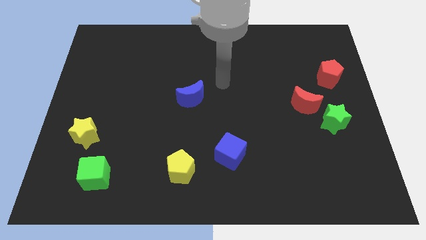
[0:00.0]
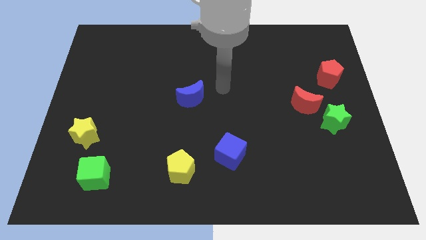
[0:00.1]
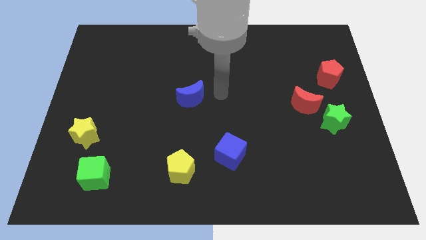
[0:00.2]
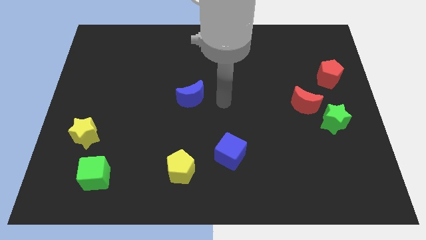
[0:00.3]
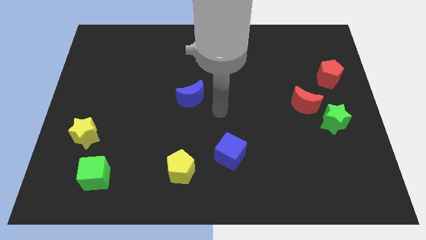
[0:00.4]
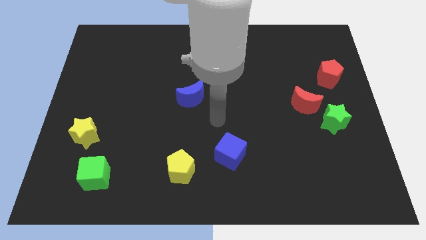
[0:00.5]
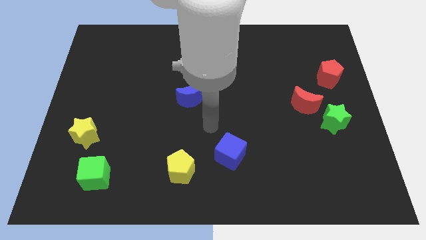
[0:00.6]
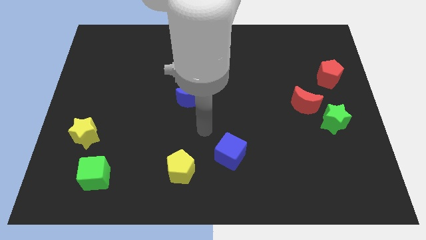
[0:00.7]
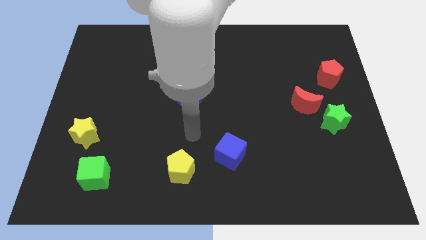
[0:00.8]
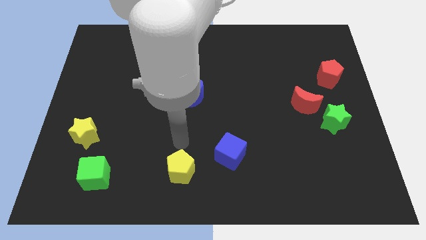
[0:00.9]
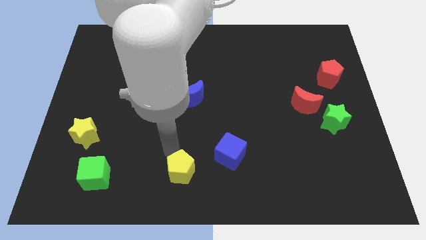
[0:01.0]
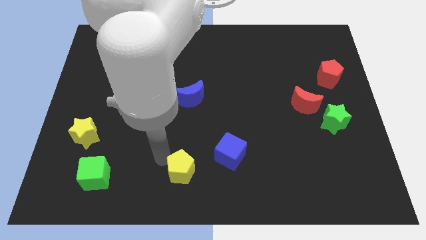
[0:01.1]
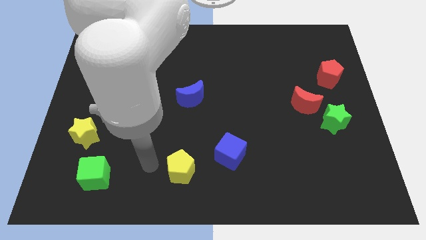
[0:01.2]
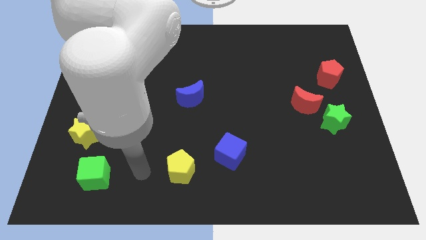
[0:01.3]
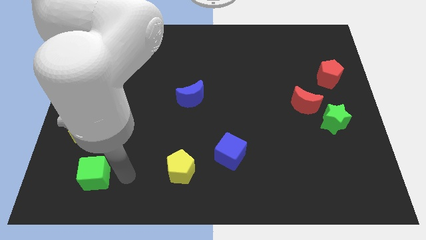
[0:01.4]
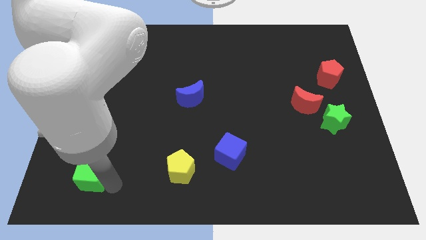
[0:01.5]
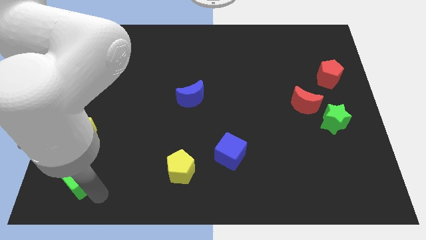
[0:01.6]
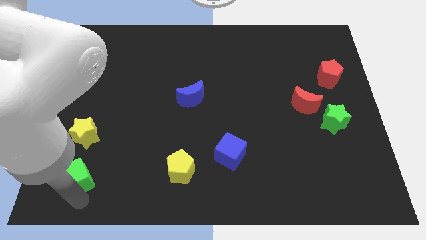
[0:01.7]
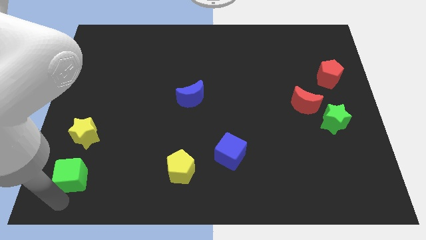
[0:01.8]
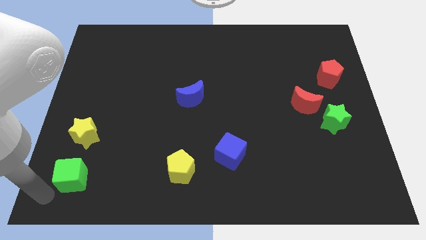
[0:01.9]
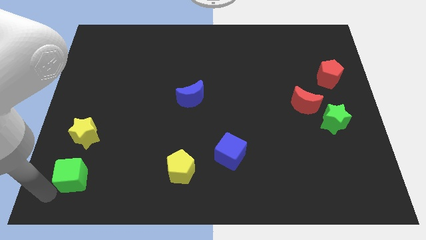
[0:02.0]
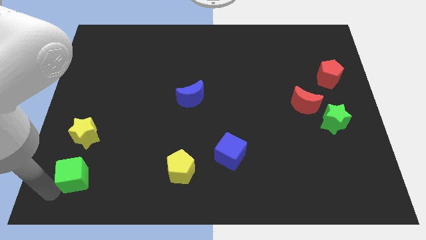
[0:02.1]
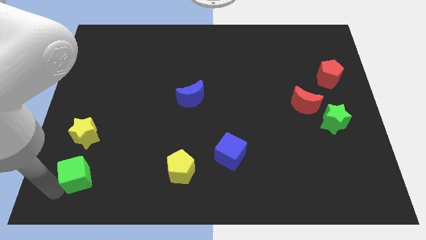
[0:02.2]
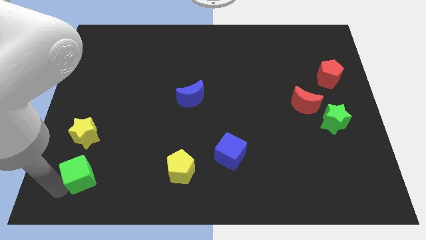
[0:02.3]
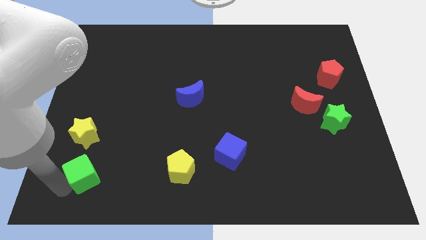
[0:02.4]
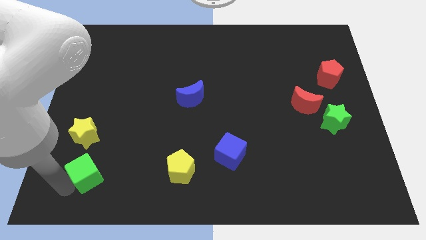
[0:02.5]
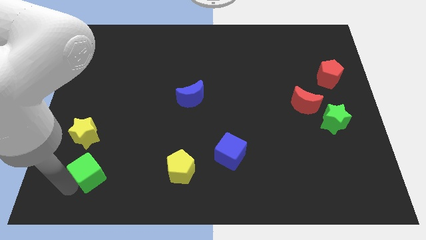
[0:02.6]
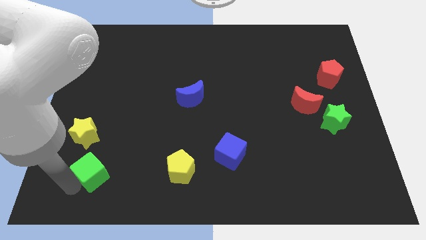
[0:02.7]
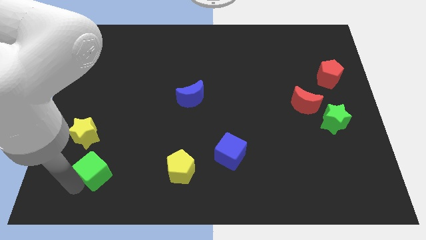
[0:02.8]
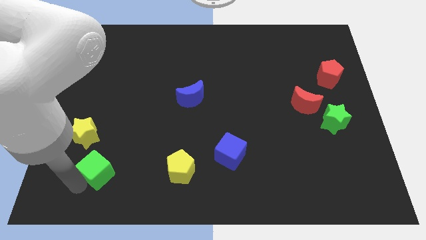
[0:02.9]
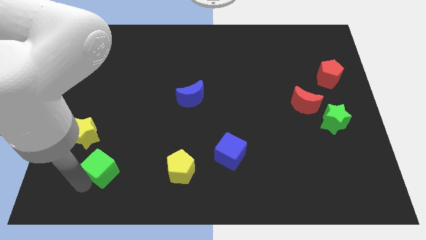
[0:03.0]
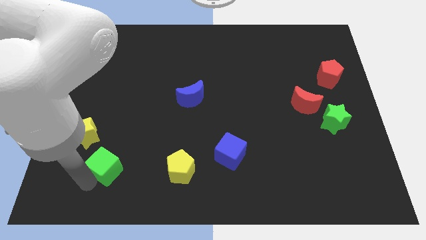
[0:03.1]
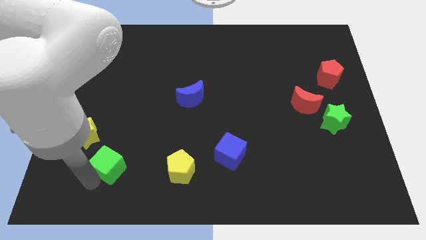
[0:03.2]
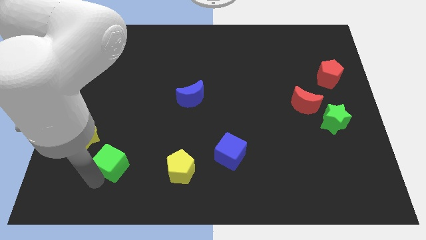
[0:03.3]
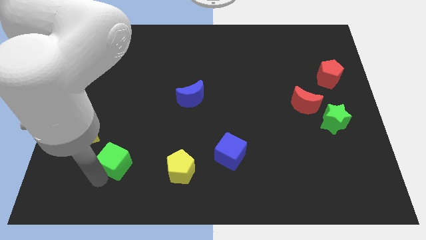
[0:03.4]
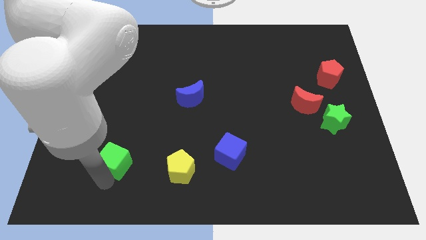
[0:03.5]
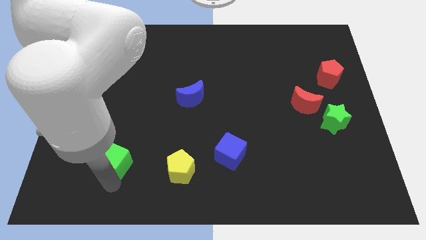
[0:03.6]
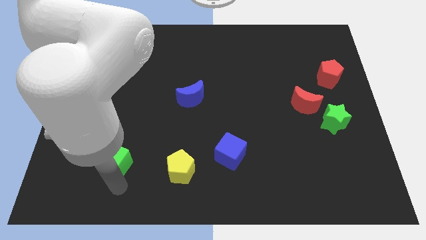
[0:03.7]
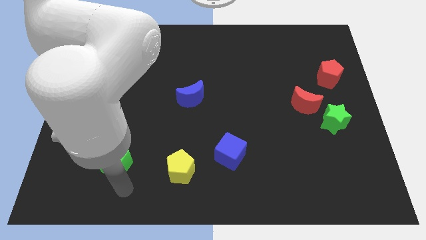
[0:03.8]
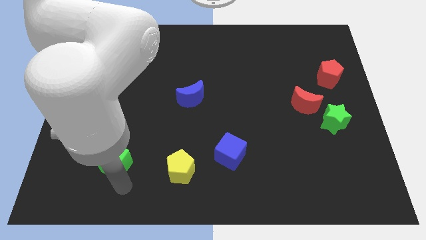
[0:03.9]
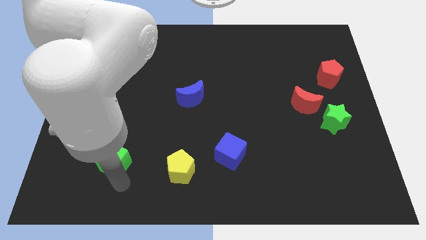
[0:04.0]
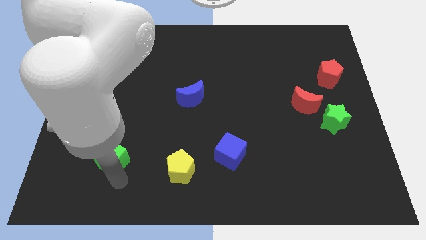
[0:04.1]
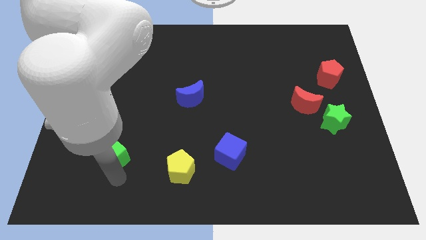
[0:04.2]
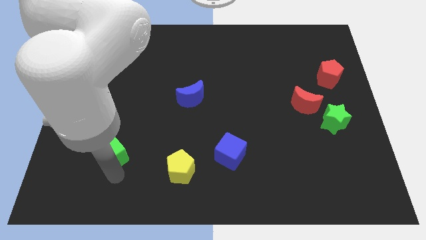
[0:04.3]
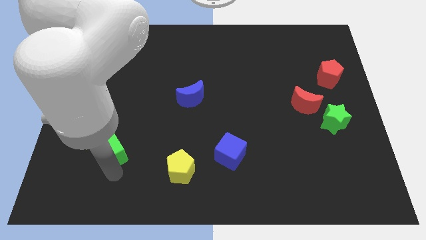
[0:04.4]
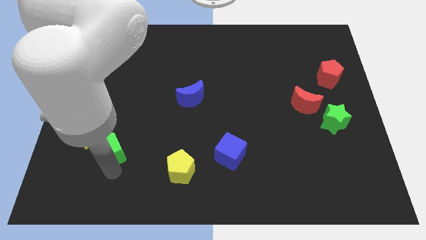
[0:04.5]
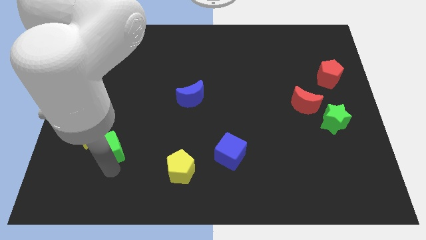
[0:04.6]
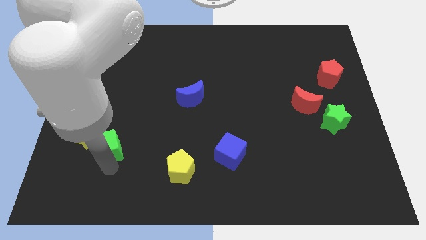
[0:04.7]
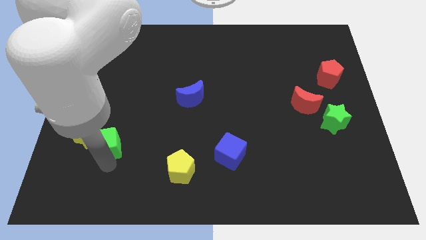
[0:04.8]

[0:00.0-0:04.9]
slightly move the green cube upwards

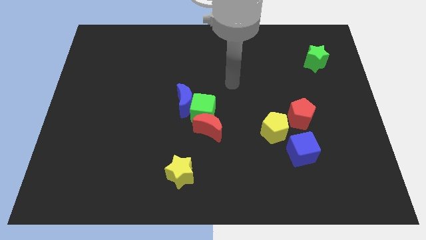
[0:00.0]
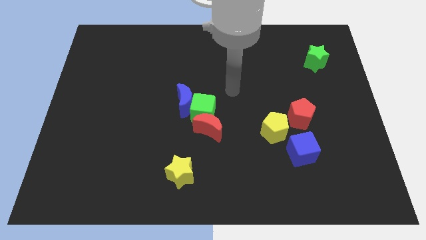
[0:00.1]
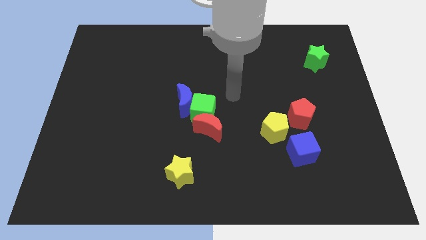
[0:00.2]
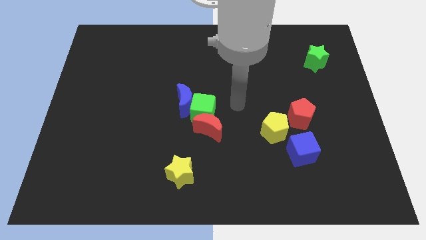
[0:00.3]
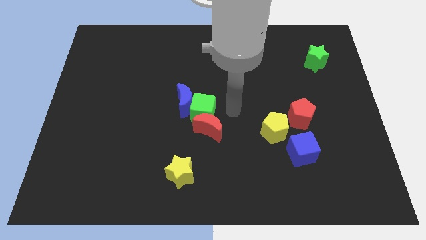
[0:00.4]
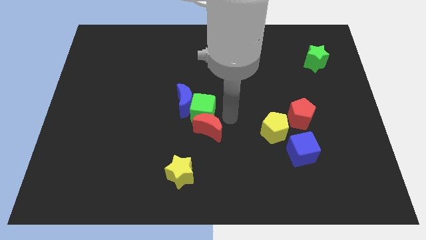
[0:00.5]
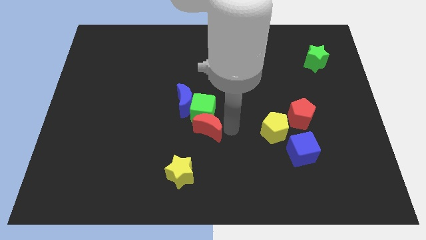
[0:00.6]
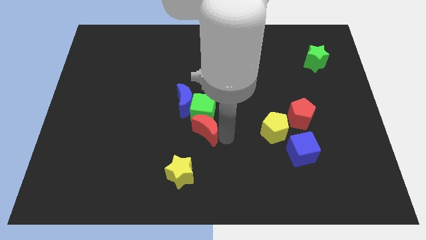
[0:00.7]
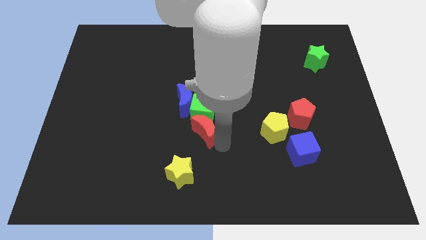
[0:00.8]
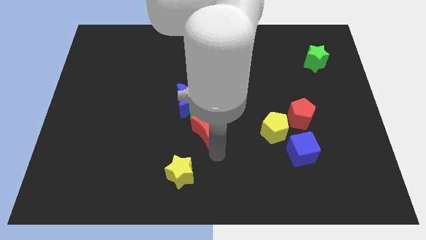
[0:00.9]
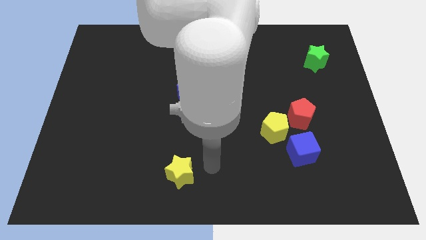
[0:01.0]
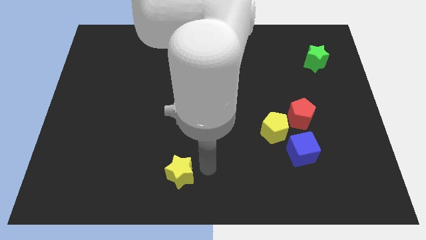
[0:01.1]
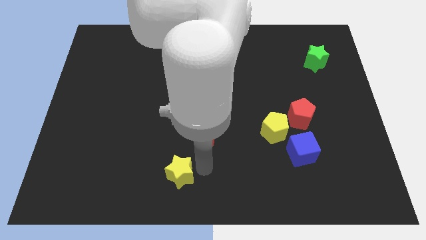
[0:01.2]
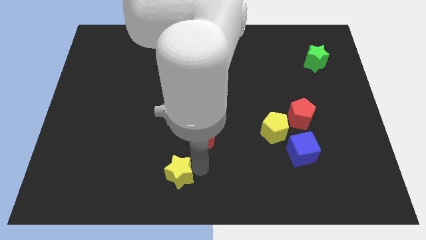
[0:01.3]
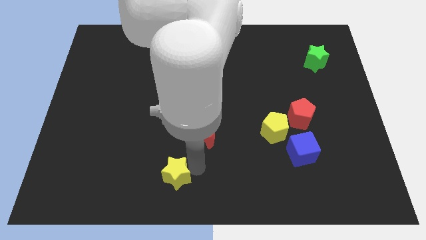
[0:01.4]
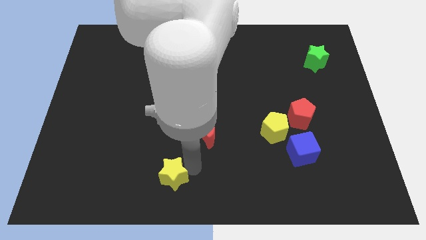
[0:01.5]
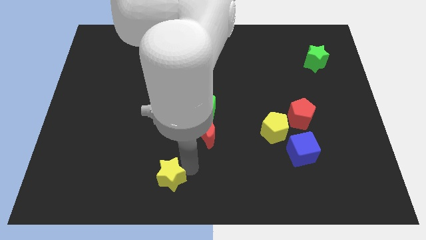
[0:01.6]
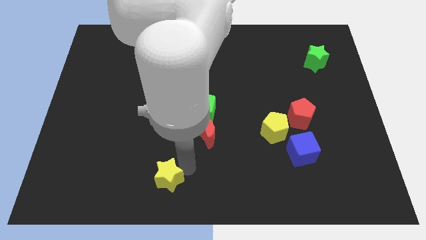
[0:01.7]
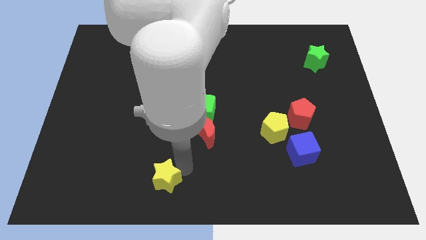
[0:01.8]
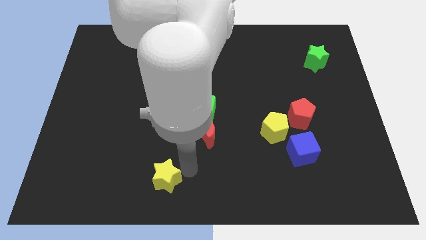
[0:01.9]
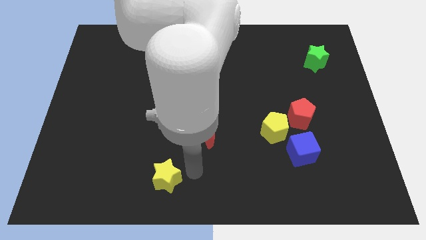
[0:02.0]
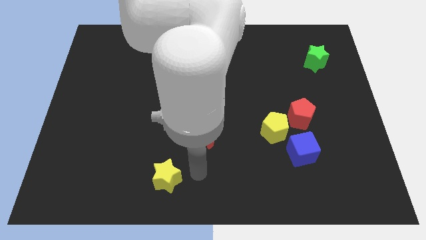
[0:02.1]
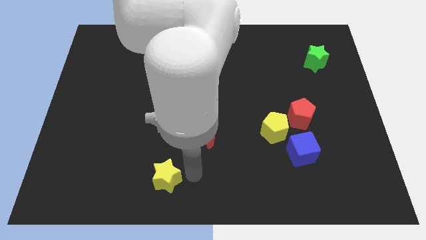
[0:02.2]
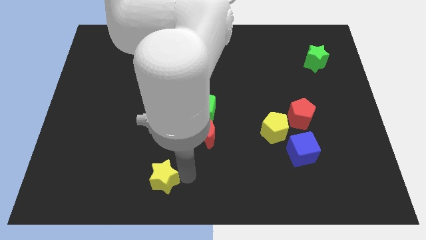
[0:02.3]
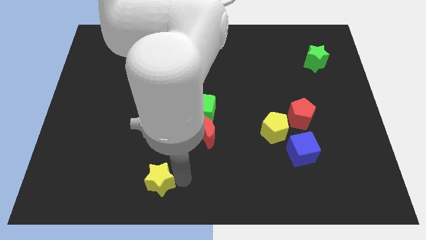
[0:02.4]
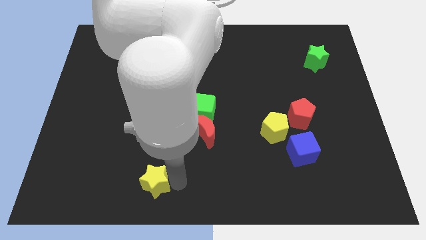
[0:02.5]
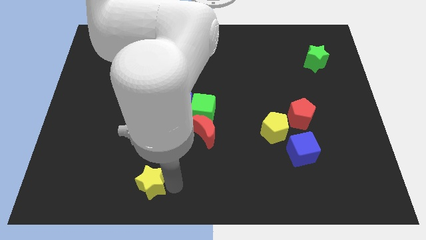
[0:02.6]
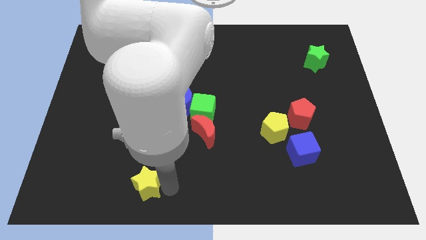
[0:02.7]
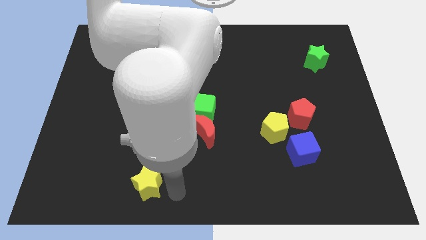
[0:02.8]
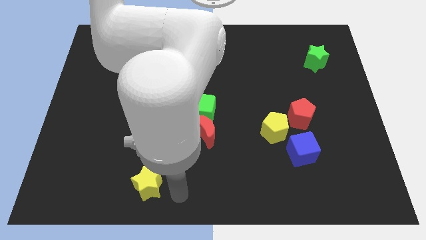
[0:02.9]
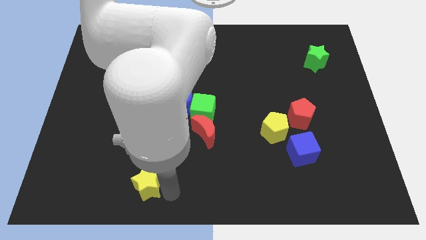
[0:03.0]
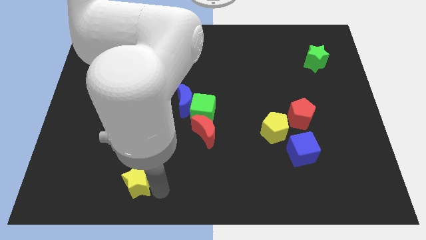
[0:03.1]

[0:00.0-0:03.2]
move the yellow star slightly to the left
